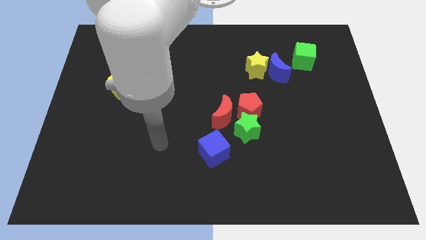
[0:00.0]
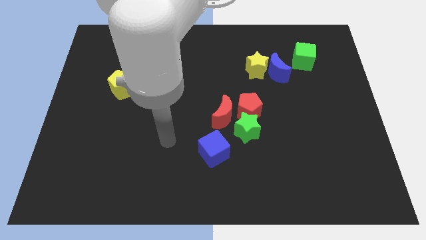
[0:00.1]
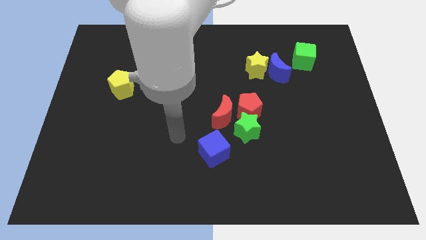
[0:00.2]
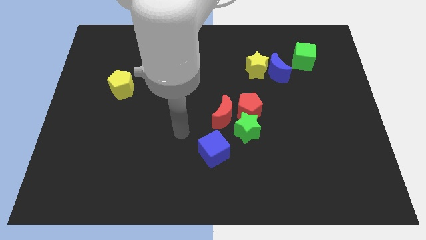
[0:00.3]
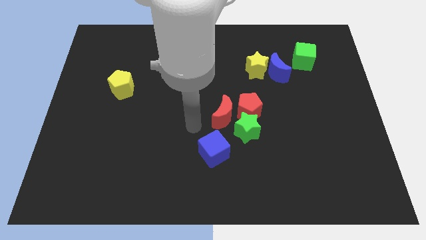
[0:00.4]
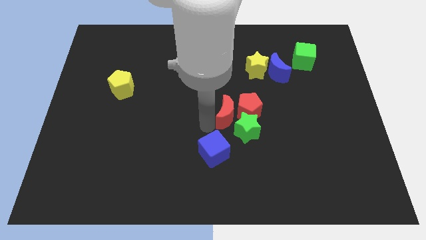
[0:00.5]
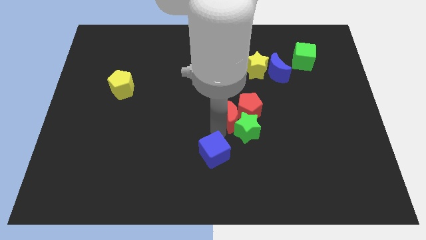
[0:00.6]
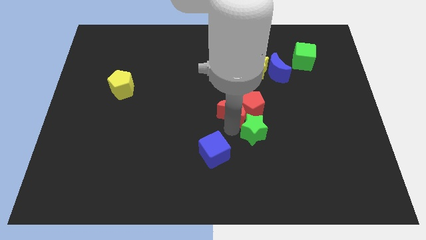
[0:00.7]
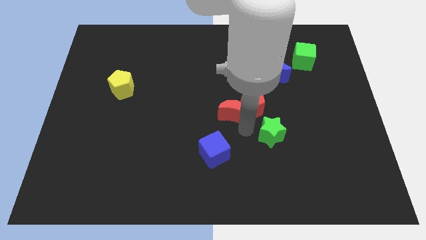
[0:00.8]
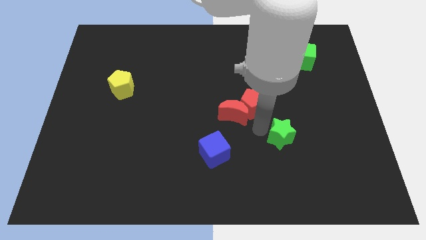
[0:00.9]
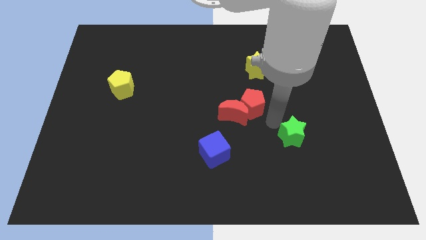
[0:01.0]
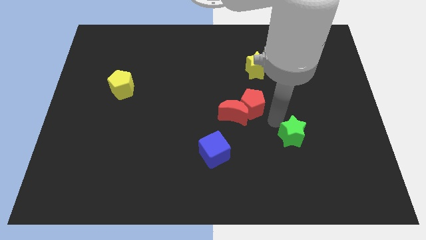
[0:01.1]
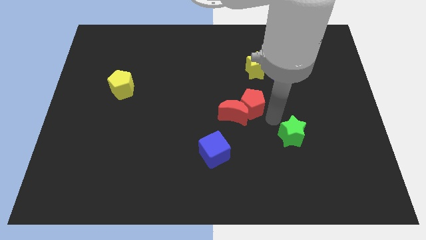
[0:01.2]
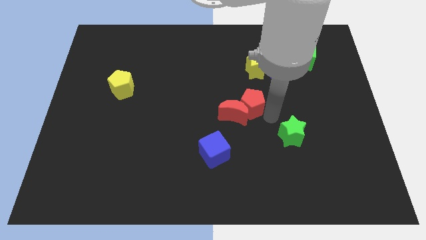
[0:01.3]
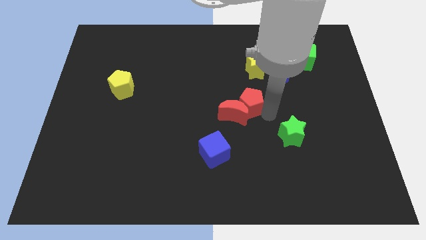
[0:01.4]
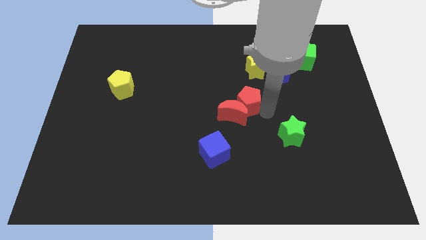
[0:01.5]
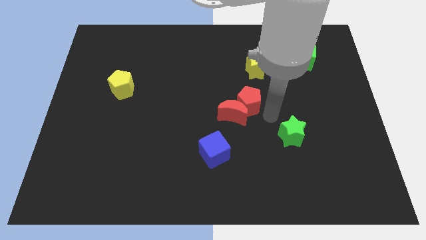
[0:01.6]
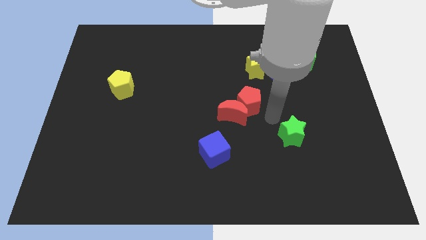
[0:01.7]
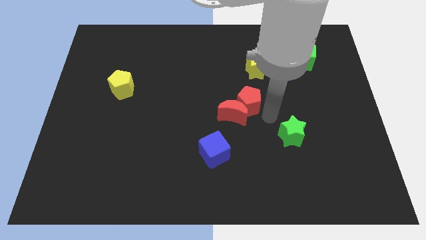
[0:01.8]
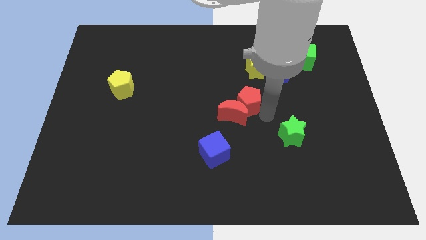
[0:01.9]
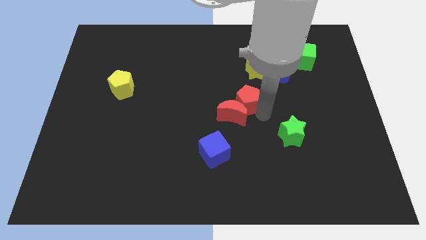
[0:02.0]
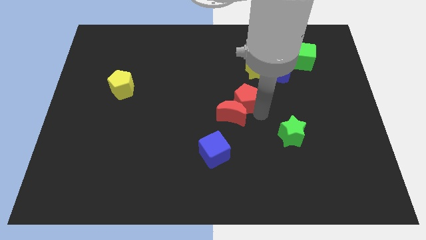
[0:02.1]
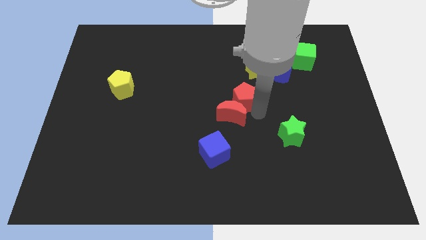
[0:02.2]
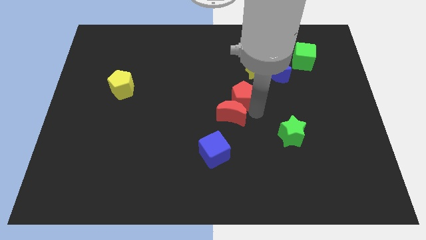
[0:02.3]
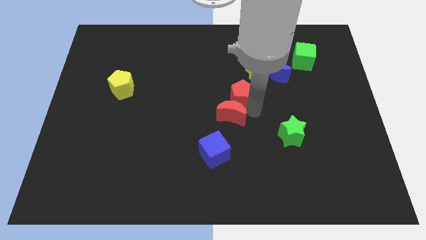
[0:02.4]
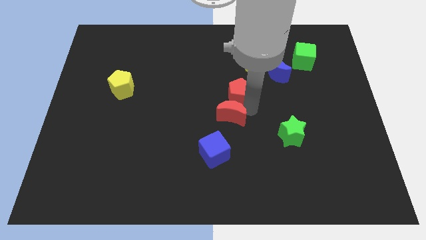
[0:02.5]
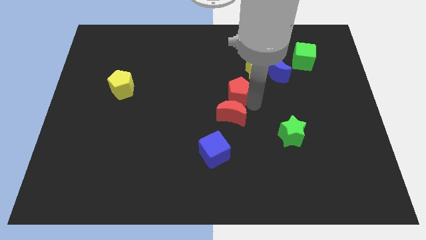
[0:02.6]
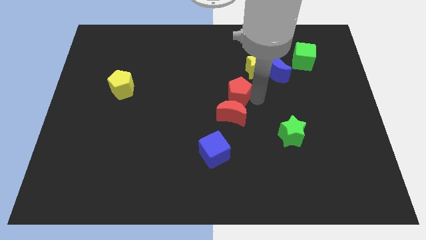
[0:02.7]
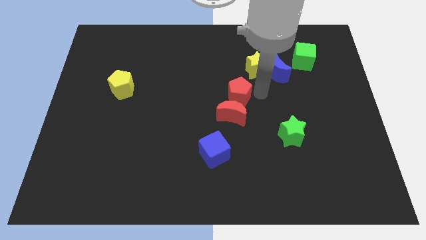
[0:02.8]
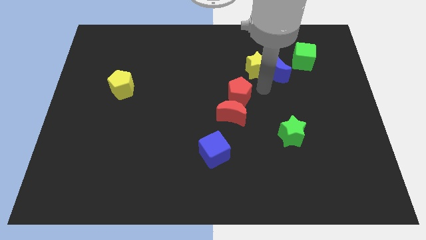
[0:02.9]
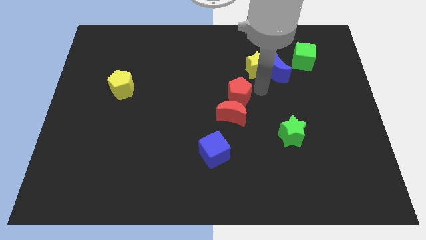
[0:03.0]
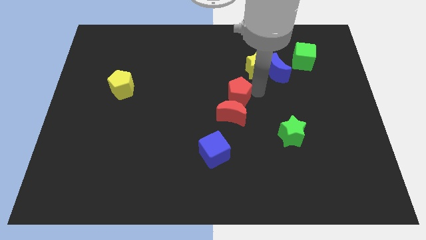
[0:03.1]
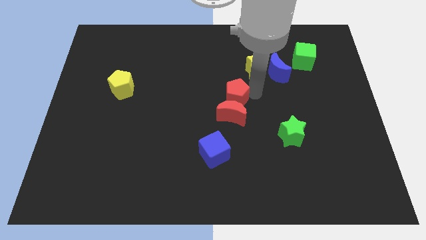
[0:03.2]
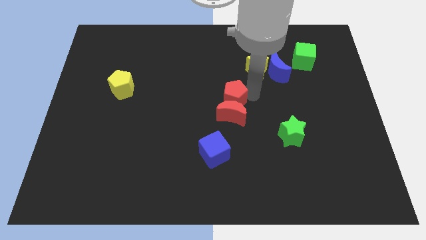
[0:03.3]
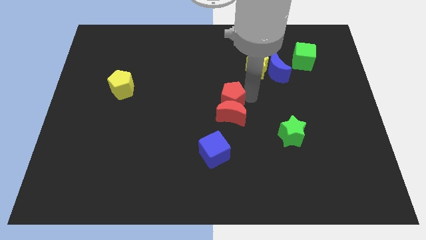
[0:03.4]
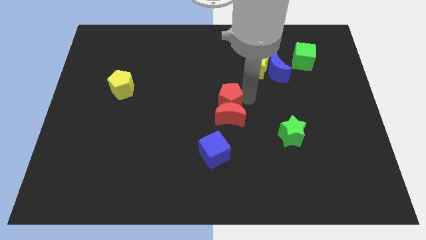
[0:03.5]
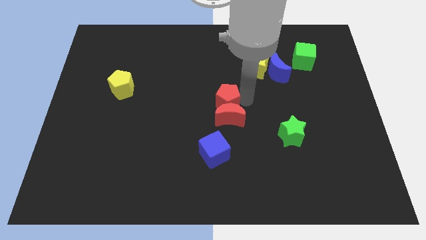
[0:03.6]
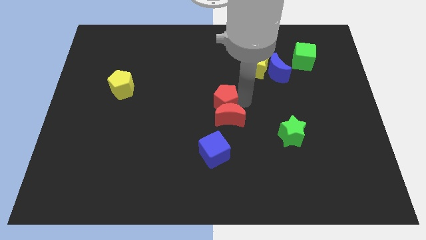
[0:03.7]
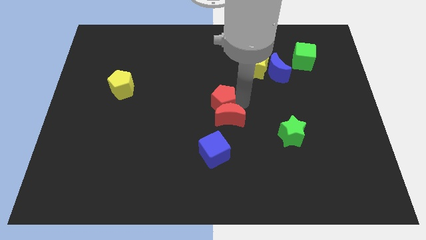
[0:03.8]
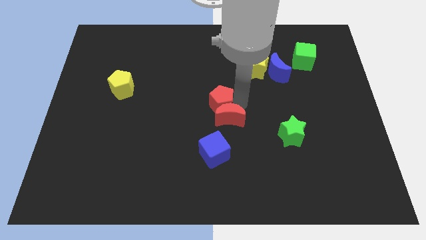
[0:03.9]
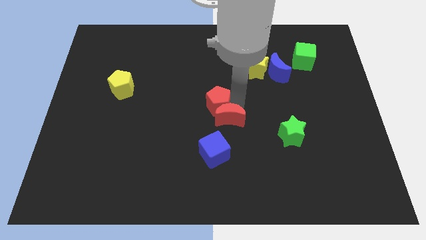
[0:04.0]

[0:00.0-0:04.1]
push the red pentagon left a little

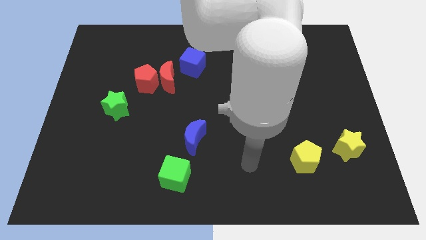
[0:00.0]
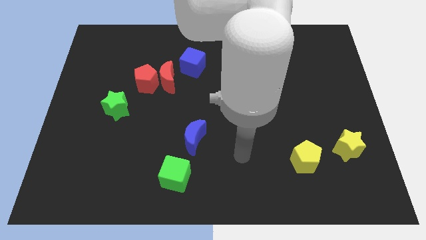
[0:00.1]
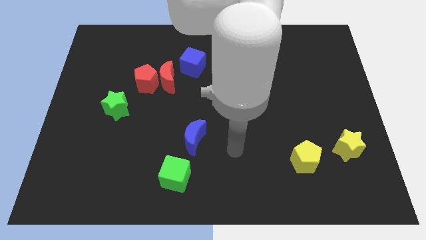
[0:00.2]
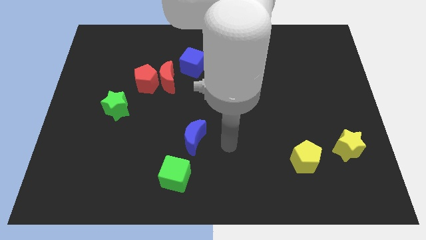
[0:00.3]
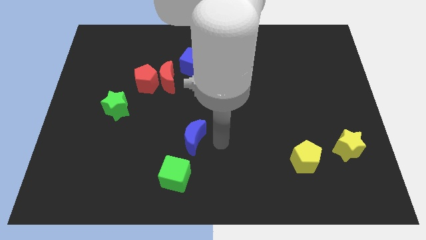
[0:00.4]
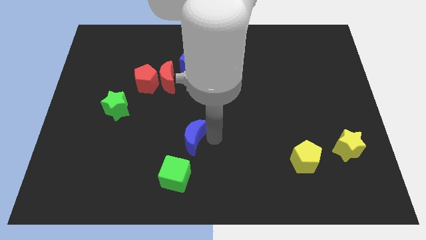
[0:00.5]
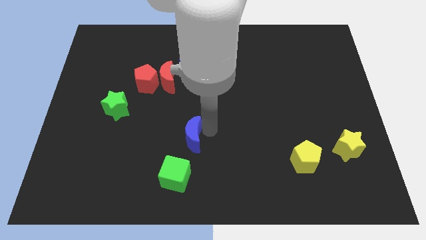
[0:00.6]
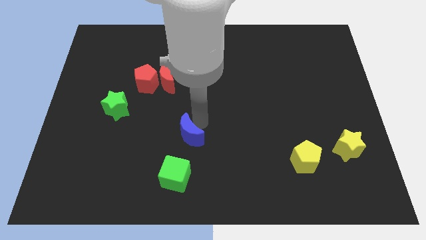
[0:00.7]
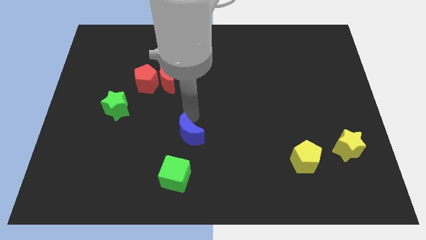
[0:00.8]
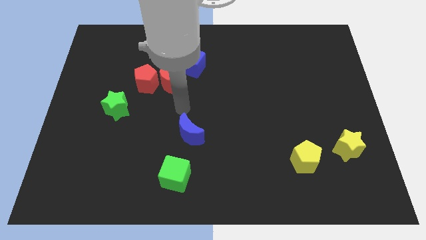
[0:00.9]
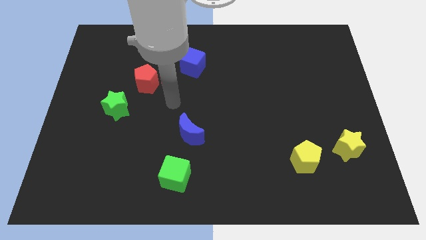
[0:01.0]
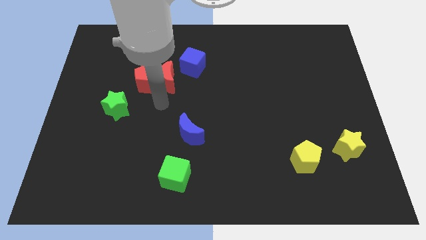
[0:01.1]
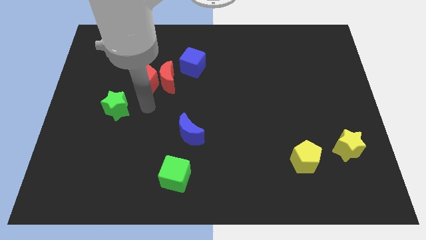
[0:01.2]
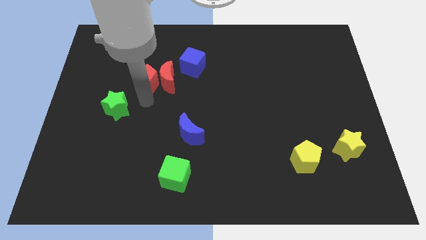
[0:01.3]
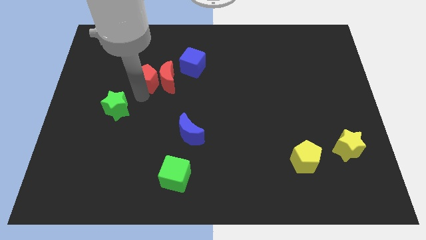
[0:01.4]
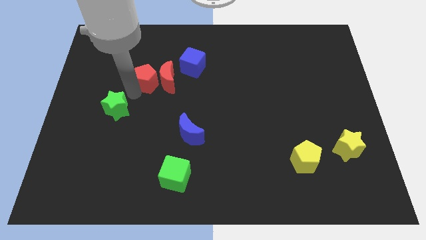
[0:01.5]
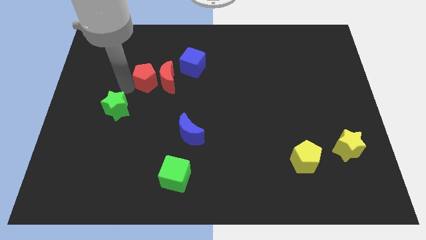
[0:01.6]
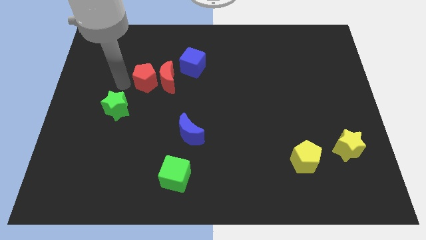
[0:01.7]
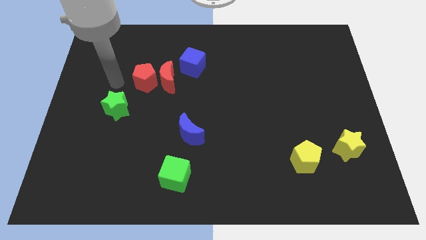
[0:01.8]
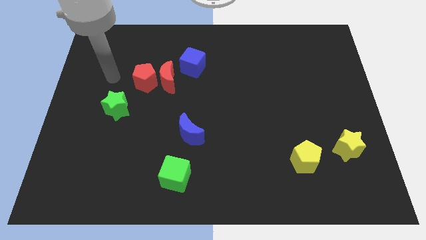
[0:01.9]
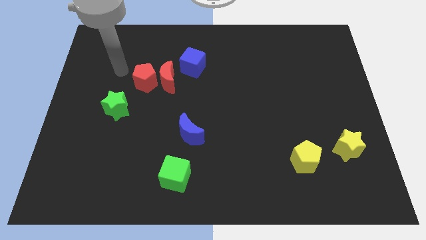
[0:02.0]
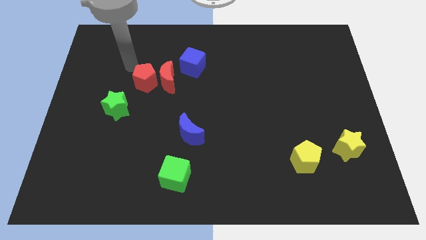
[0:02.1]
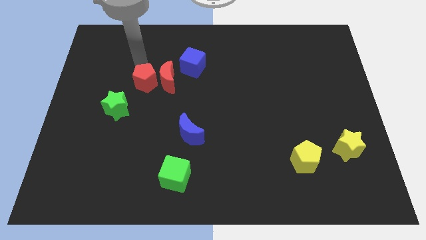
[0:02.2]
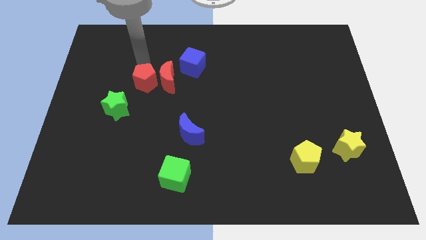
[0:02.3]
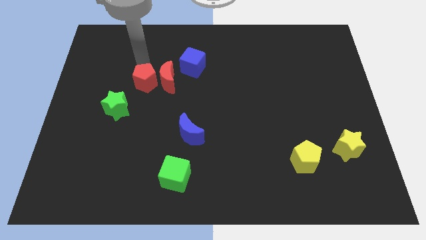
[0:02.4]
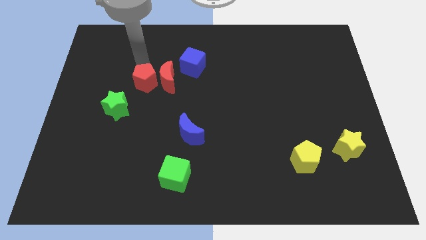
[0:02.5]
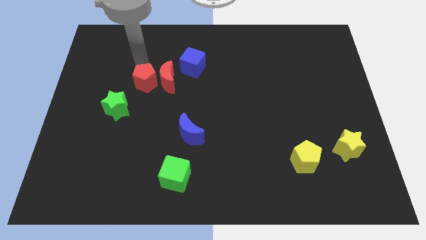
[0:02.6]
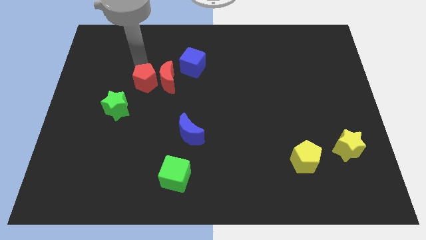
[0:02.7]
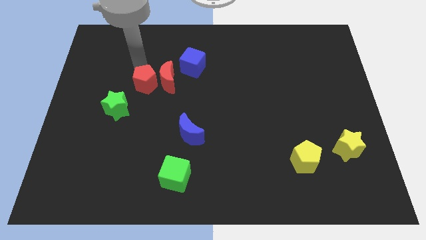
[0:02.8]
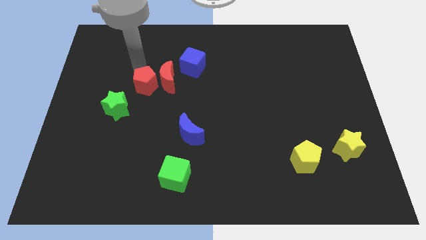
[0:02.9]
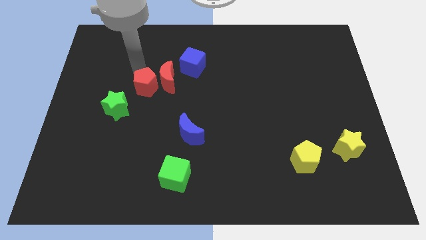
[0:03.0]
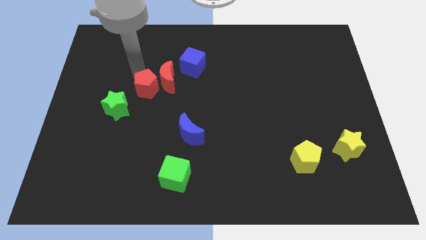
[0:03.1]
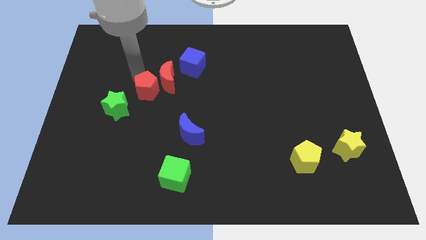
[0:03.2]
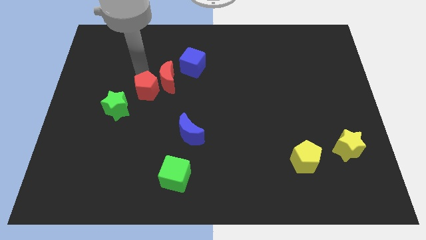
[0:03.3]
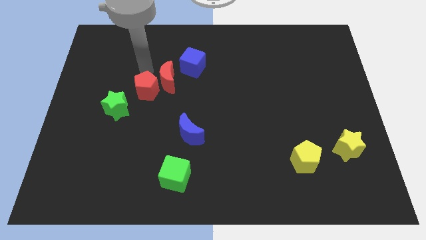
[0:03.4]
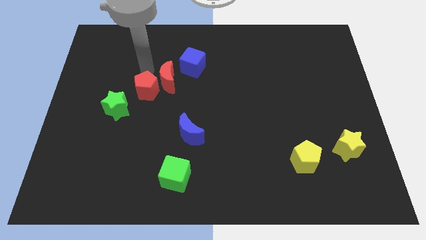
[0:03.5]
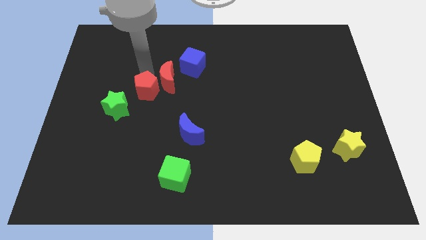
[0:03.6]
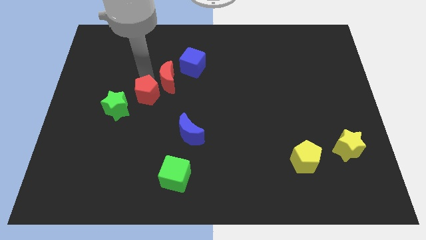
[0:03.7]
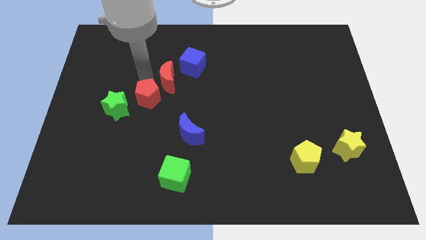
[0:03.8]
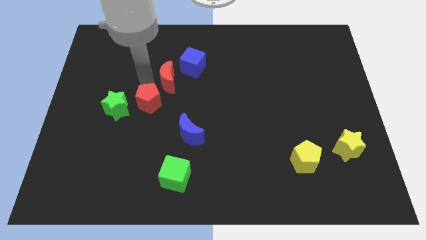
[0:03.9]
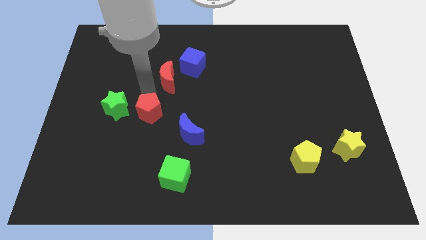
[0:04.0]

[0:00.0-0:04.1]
slightly push the red pentagon downwards

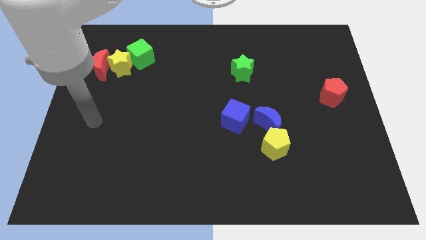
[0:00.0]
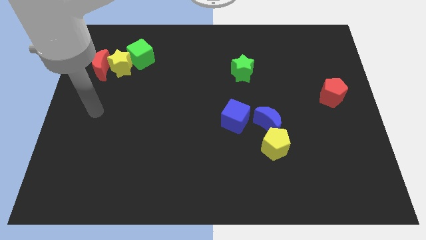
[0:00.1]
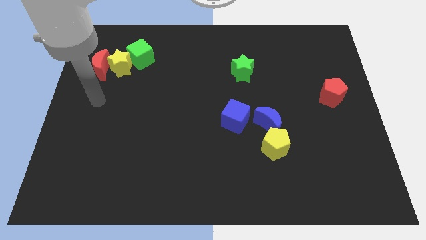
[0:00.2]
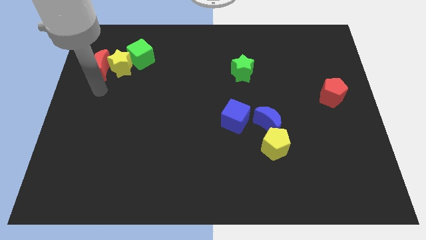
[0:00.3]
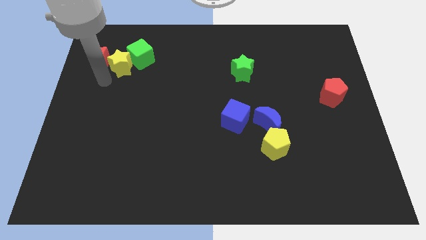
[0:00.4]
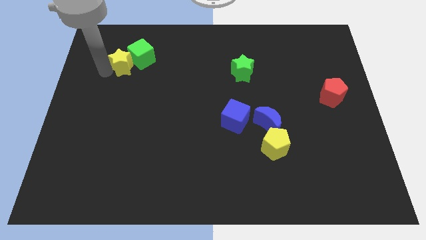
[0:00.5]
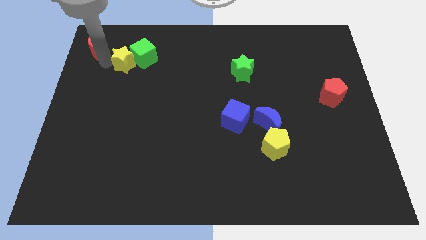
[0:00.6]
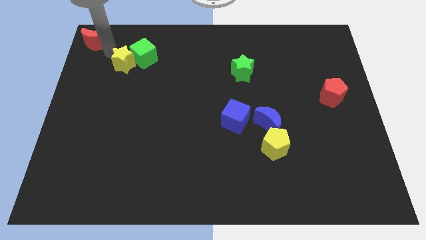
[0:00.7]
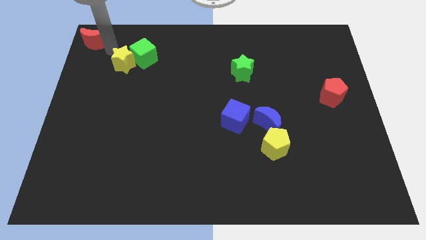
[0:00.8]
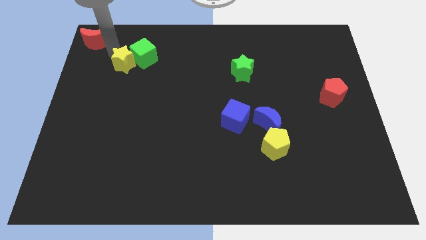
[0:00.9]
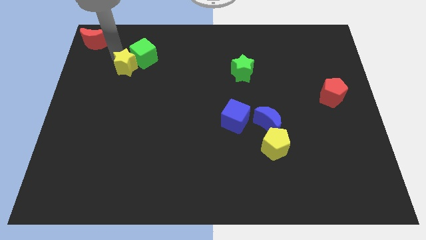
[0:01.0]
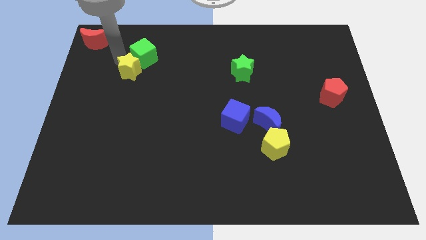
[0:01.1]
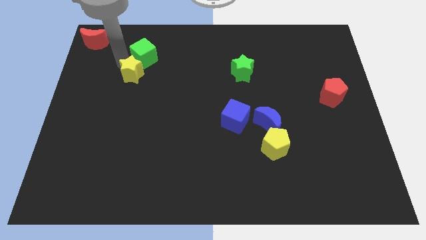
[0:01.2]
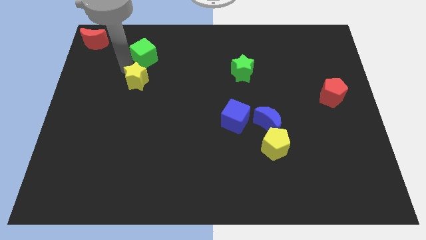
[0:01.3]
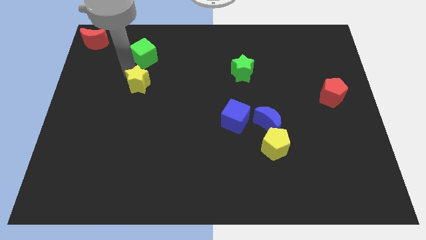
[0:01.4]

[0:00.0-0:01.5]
move the yellow star a little down and then to the right
